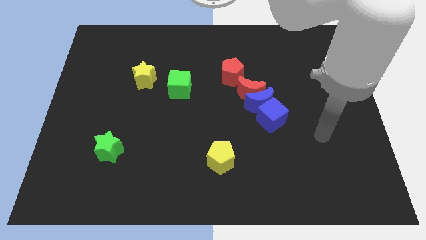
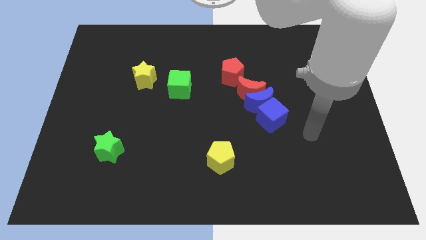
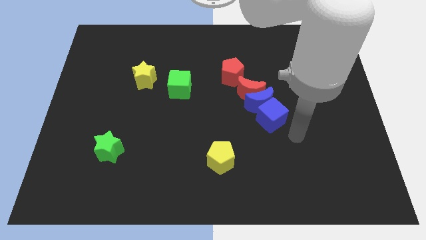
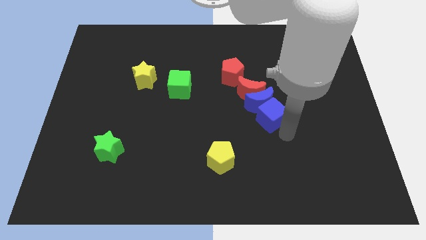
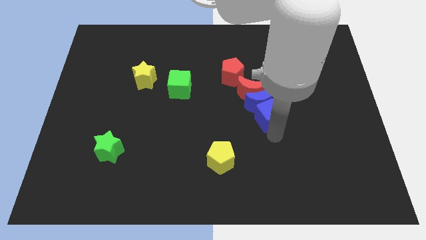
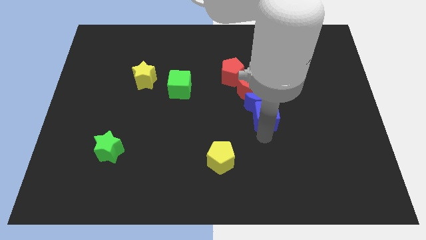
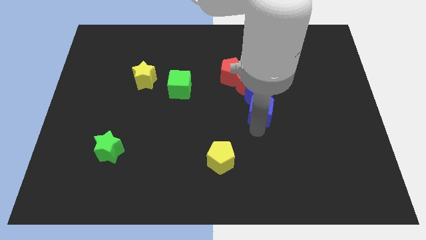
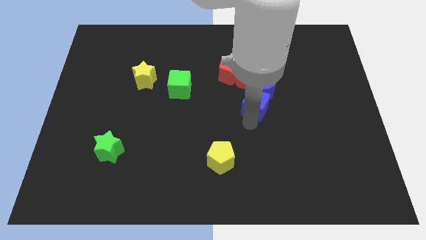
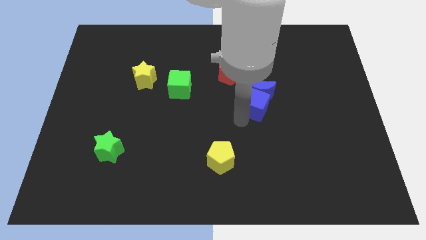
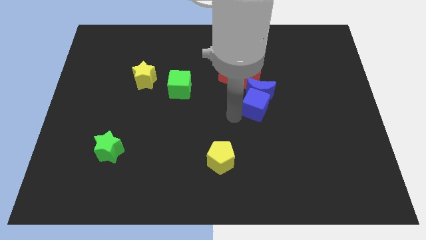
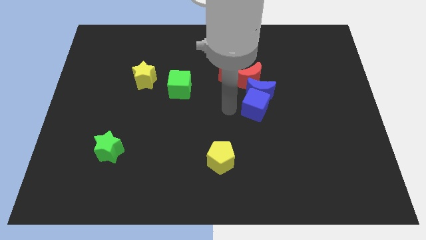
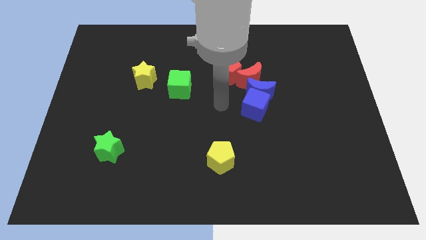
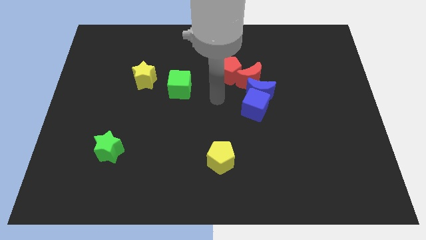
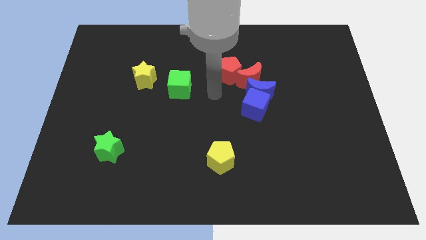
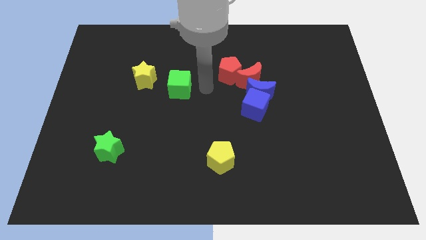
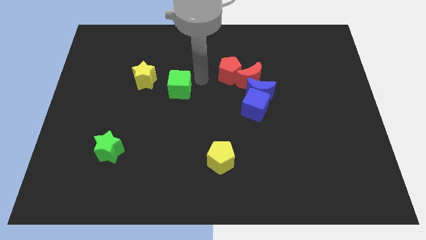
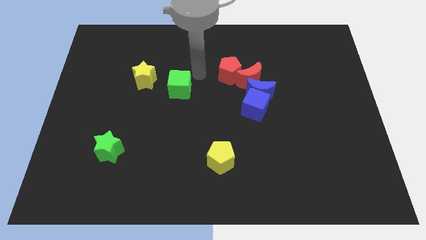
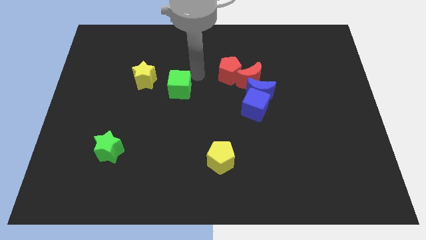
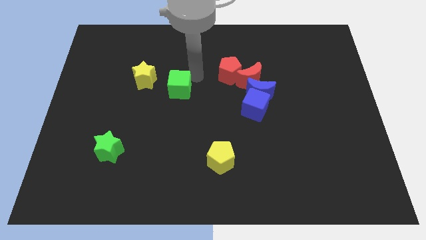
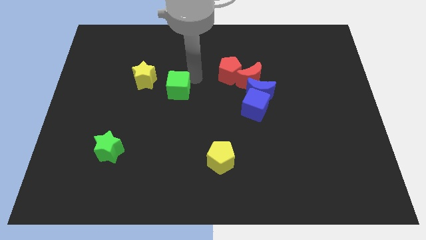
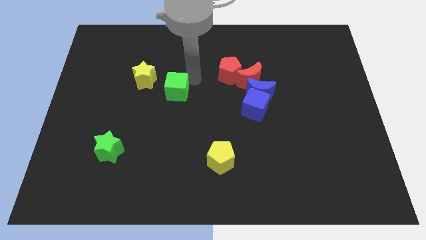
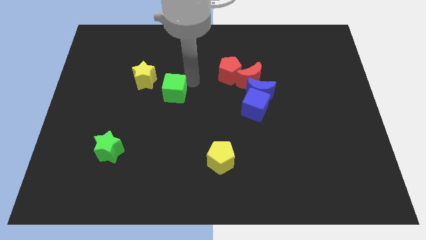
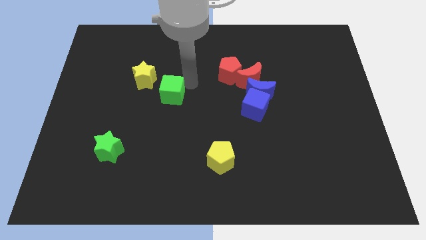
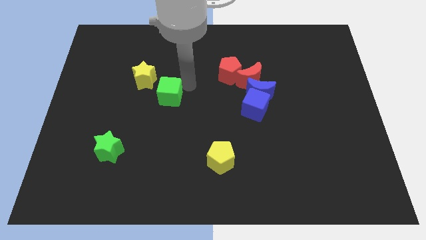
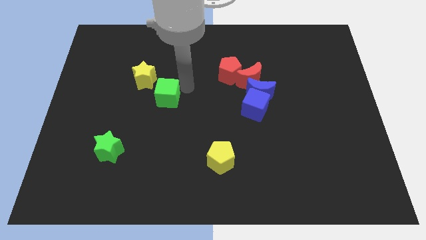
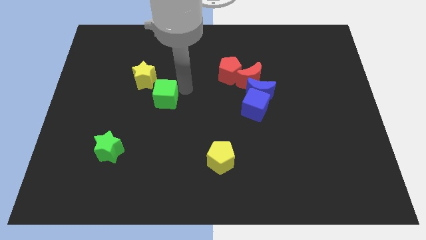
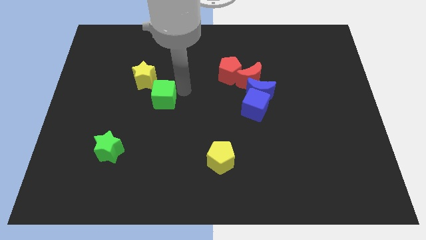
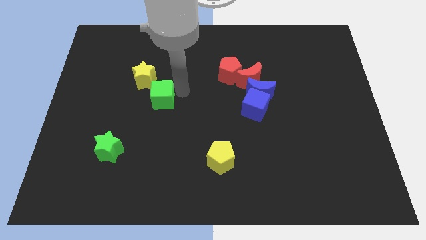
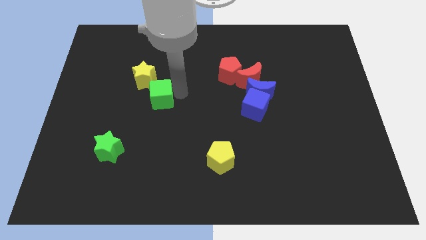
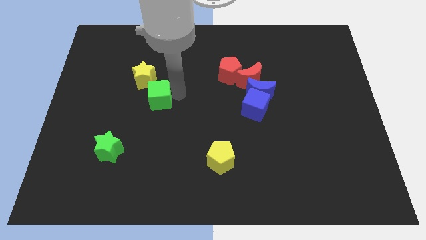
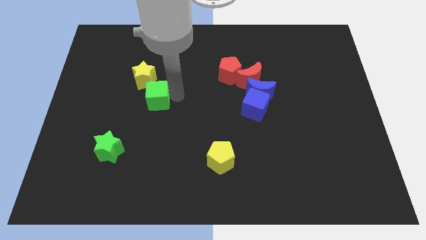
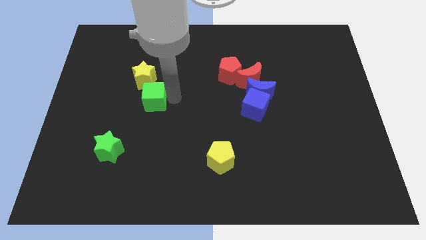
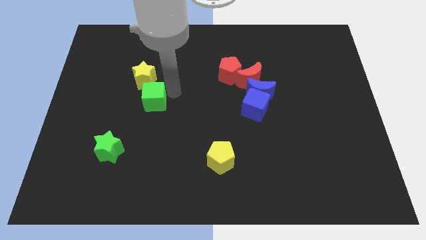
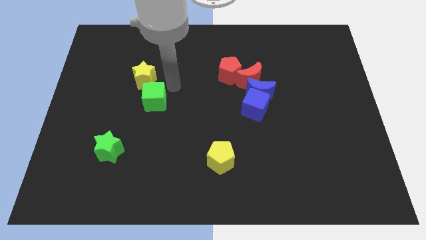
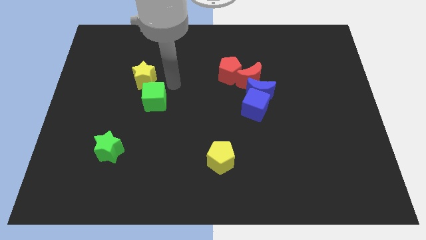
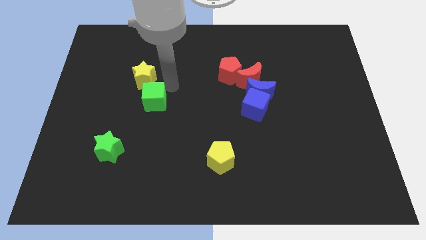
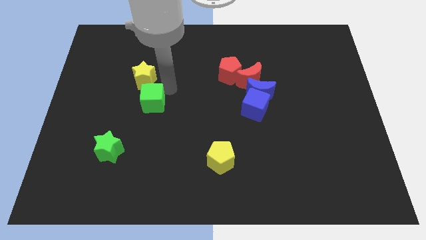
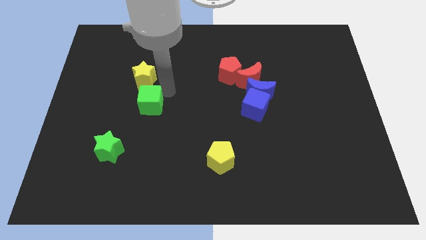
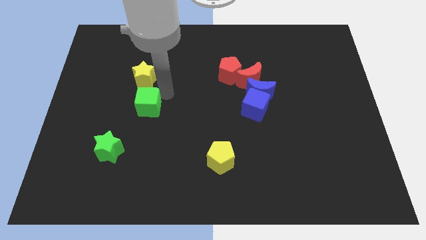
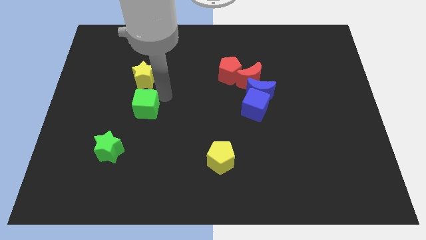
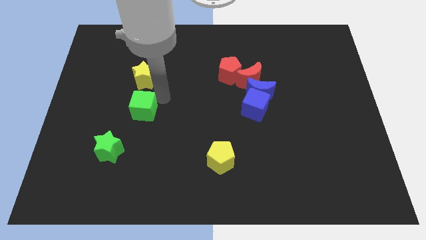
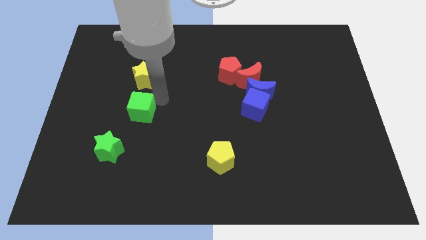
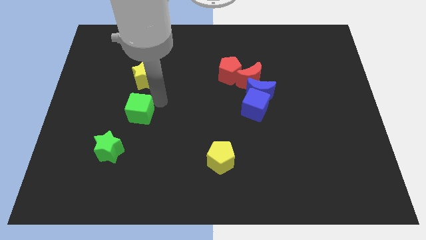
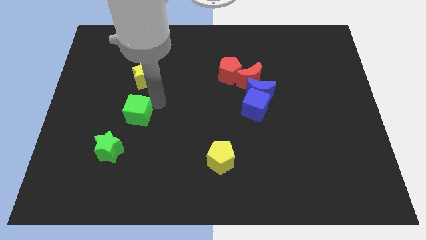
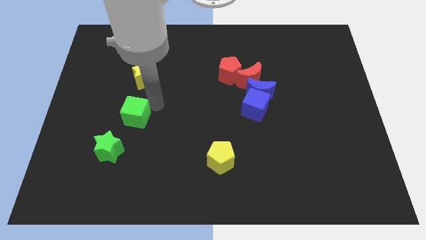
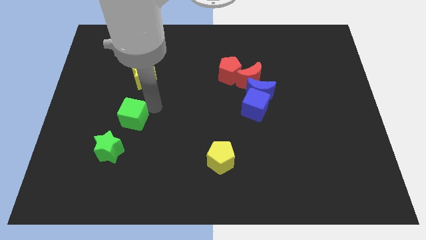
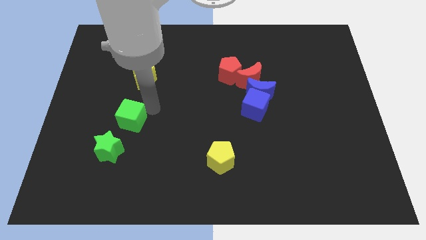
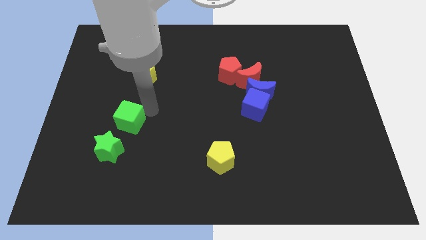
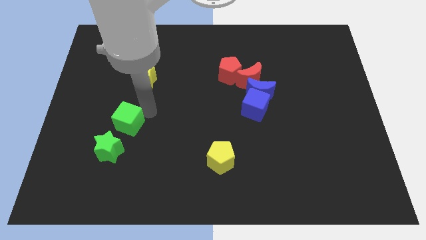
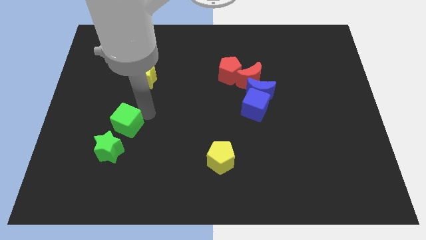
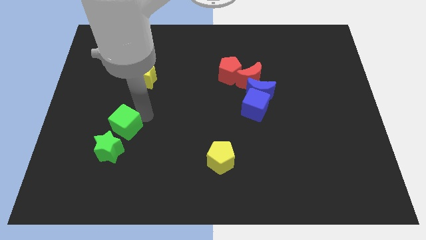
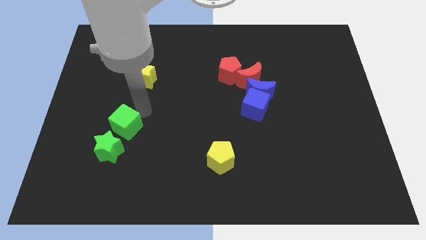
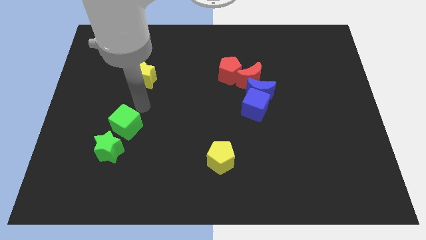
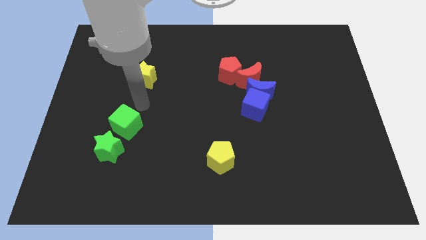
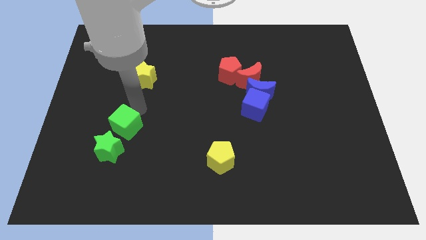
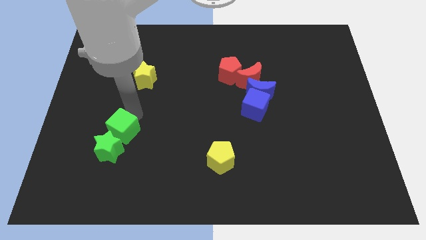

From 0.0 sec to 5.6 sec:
push the green cube towards the green star

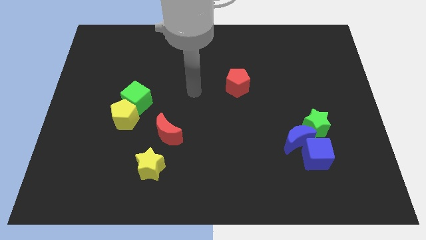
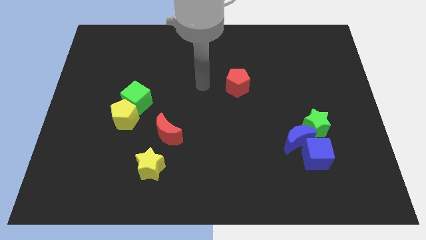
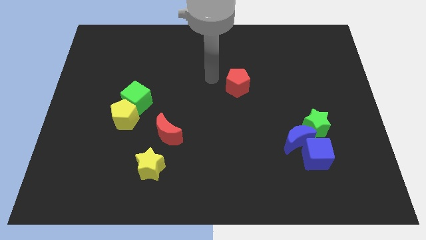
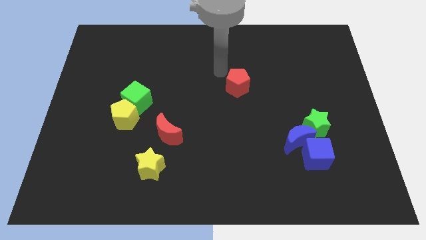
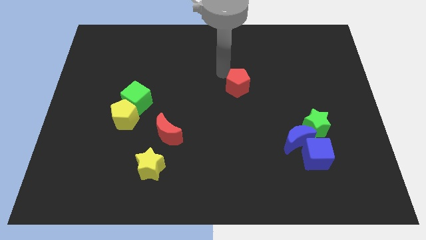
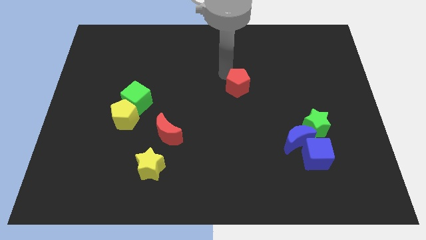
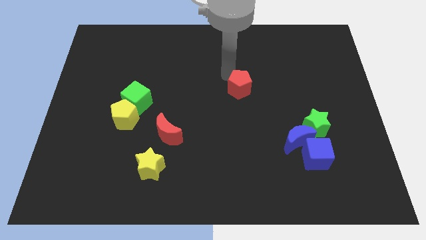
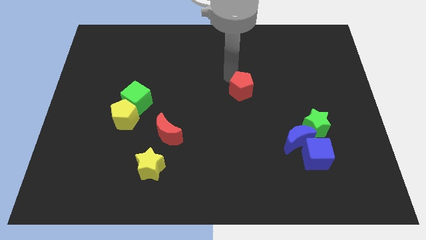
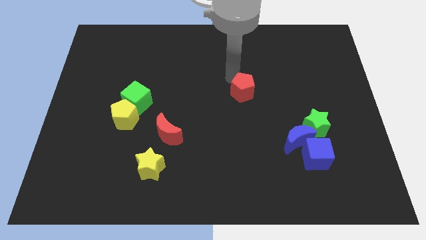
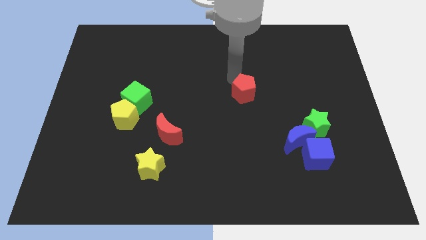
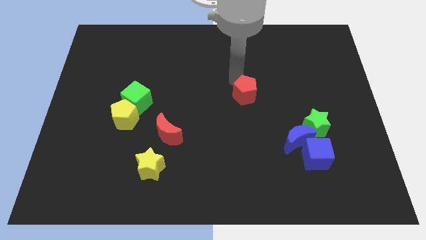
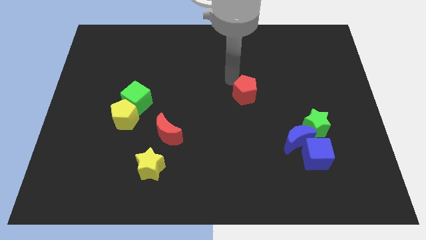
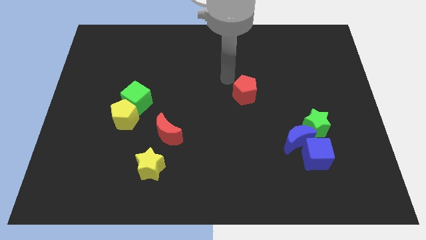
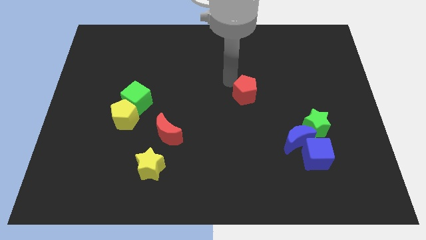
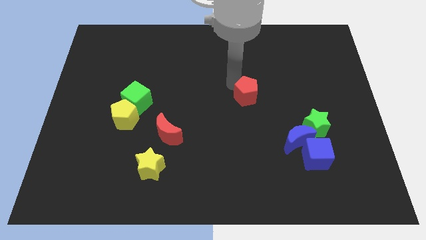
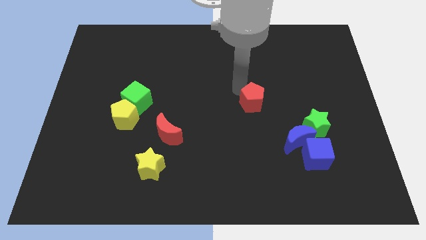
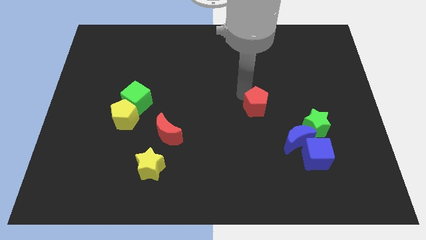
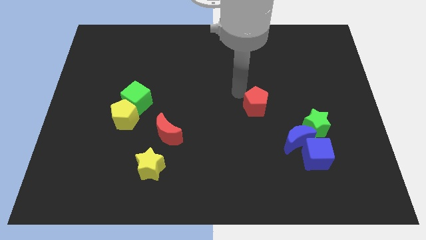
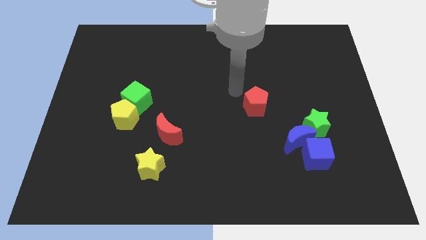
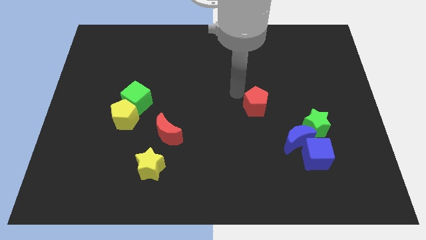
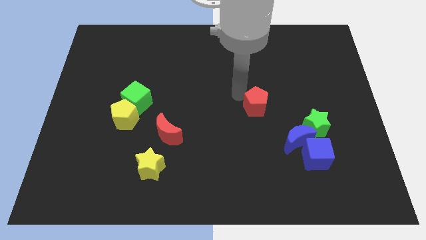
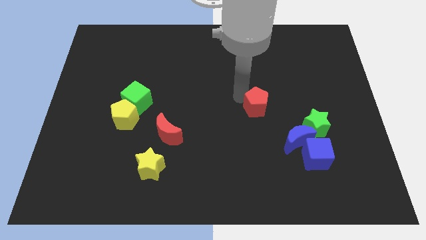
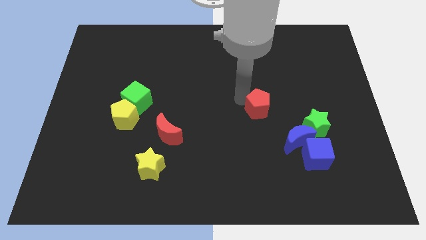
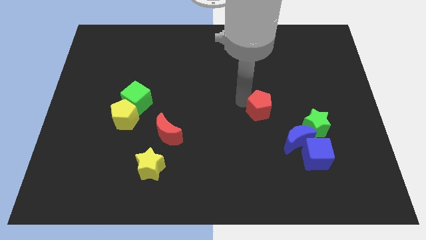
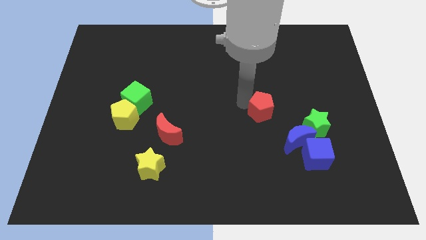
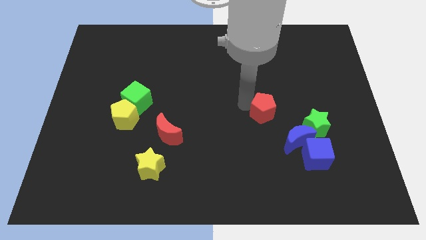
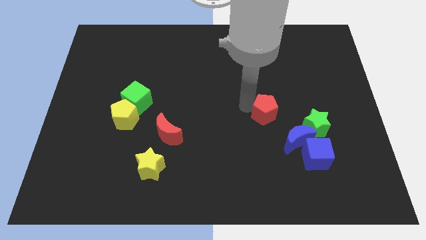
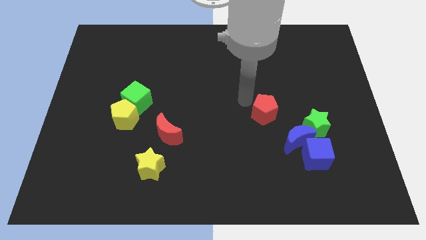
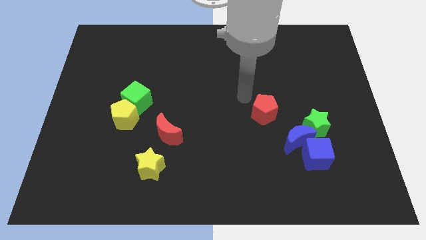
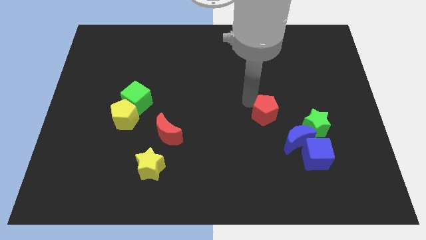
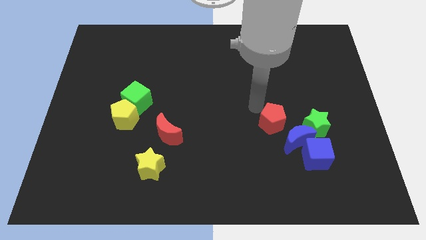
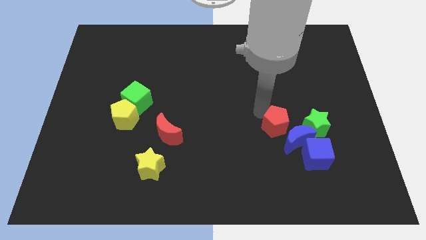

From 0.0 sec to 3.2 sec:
move the red pentagon to the blue moon
